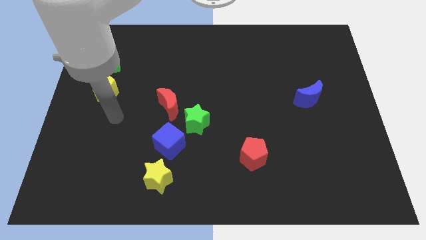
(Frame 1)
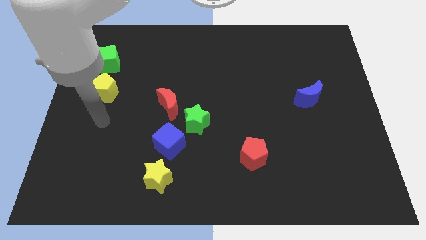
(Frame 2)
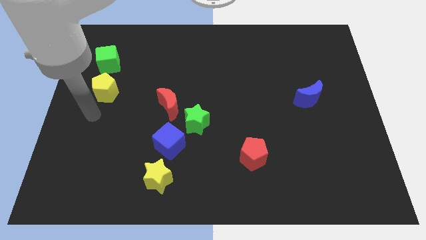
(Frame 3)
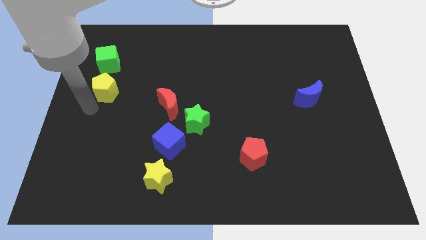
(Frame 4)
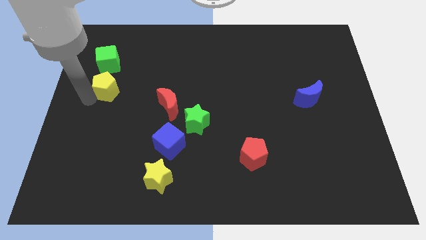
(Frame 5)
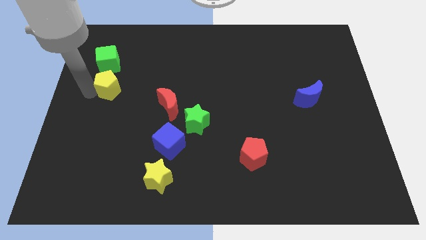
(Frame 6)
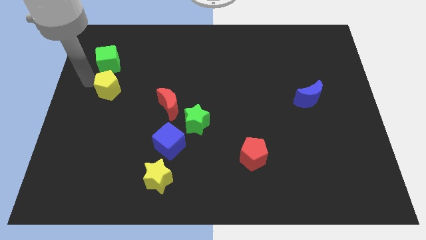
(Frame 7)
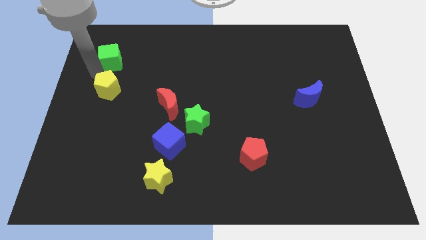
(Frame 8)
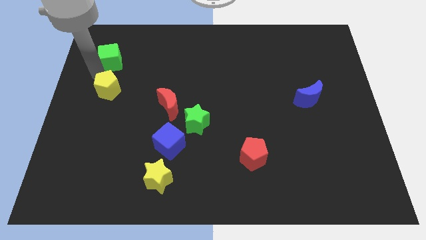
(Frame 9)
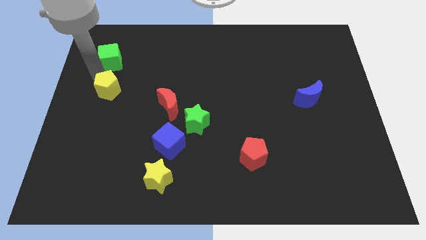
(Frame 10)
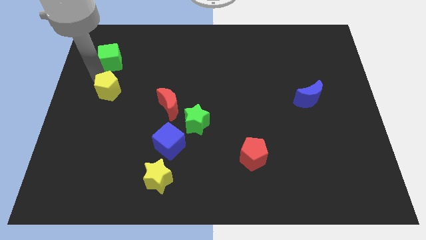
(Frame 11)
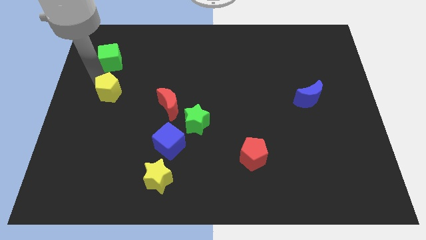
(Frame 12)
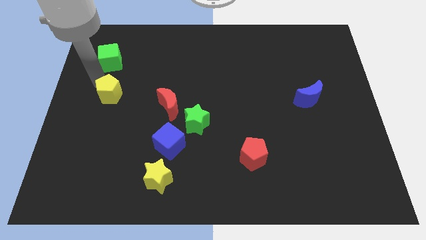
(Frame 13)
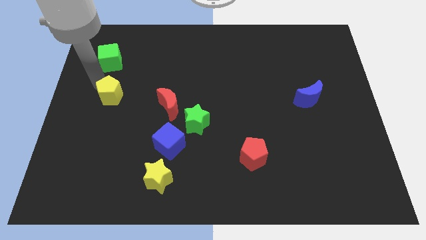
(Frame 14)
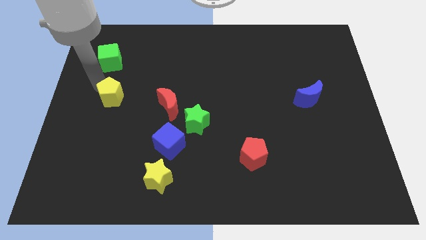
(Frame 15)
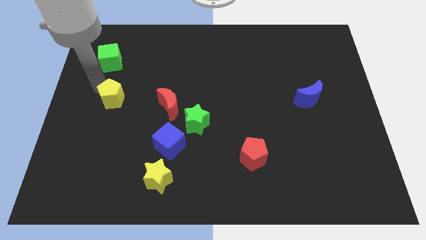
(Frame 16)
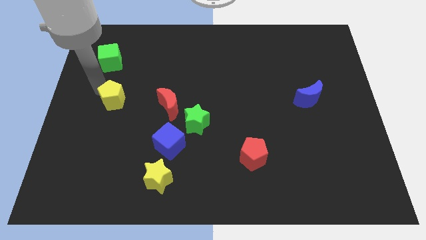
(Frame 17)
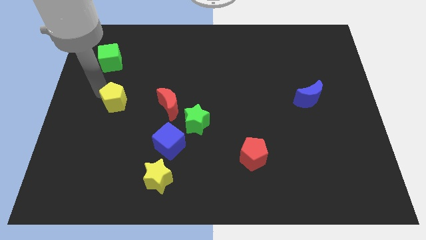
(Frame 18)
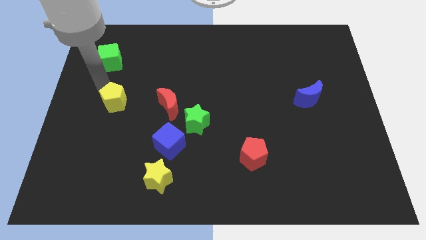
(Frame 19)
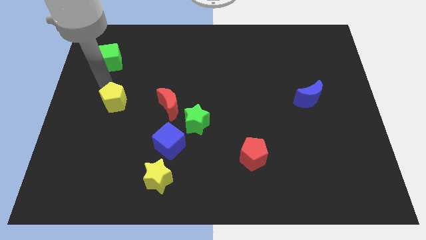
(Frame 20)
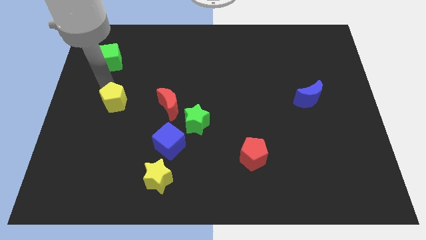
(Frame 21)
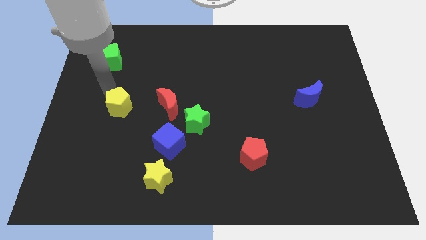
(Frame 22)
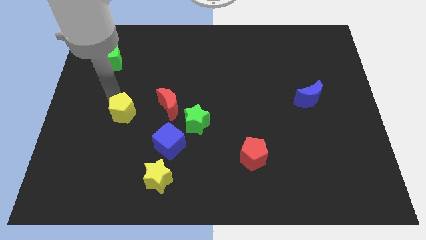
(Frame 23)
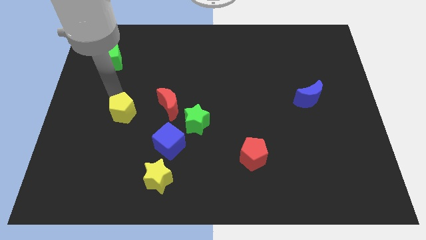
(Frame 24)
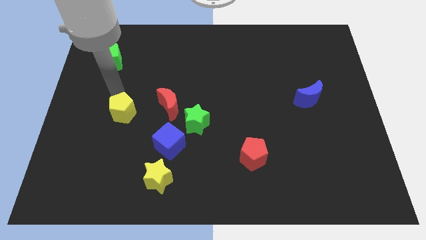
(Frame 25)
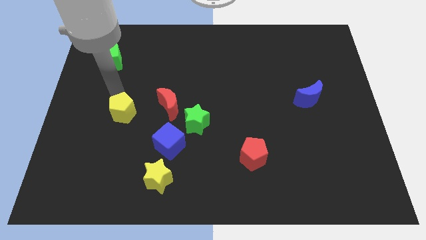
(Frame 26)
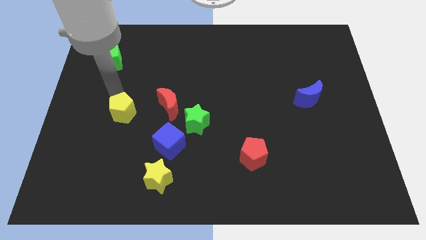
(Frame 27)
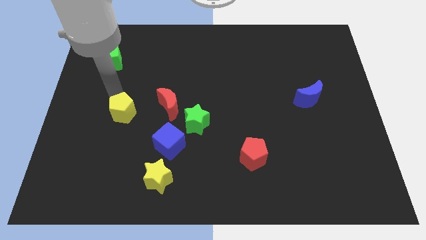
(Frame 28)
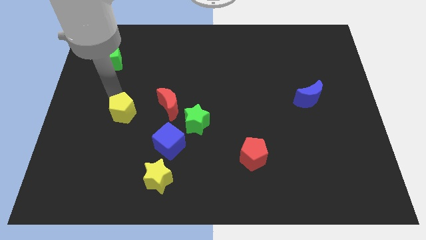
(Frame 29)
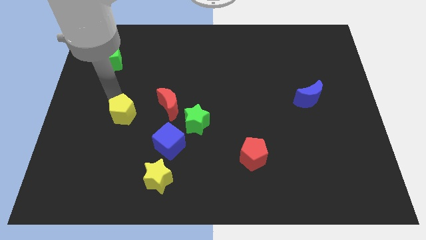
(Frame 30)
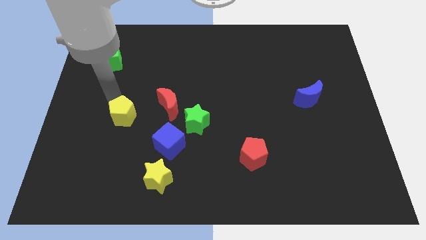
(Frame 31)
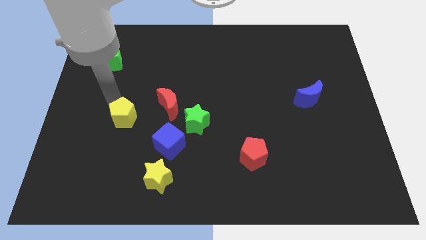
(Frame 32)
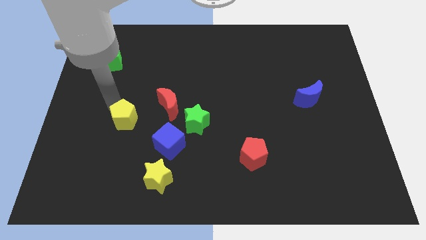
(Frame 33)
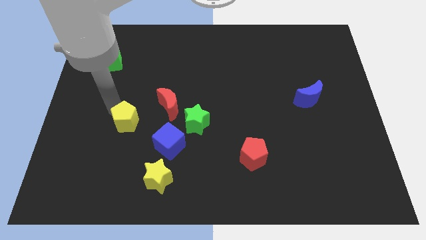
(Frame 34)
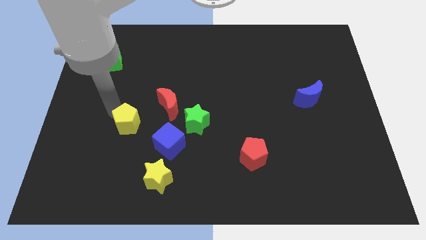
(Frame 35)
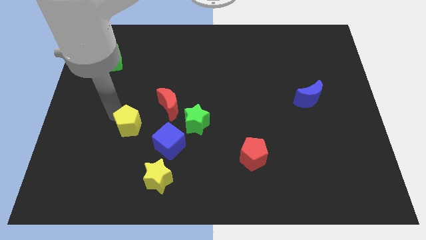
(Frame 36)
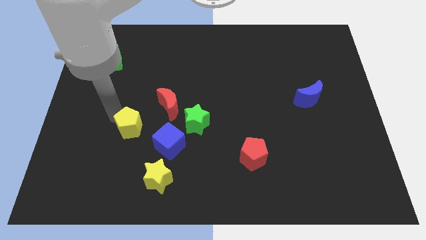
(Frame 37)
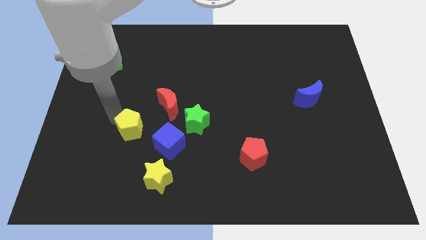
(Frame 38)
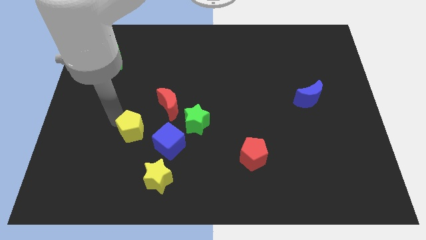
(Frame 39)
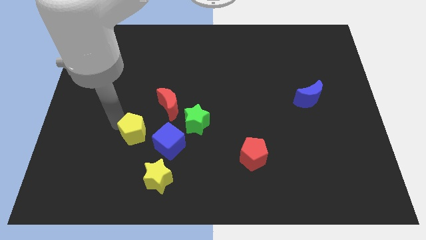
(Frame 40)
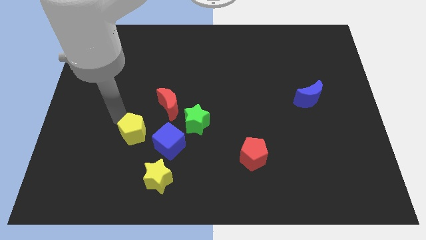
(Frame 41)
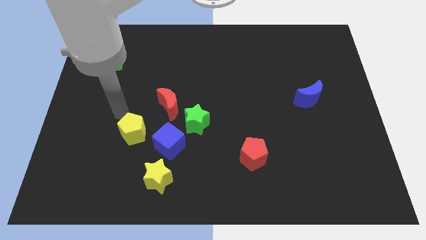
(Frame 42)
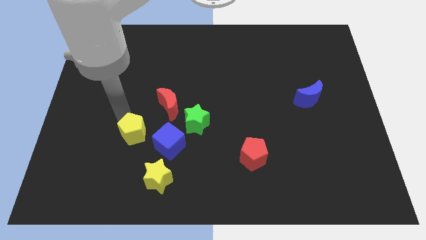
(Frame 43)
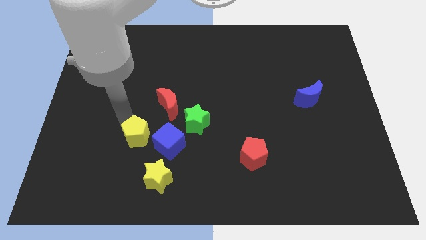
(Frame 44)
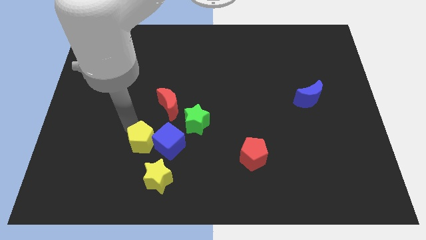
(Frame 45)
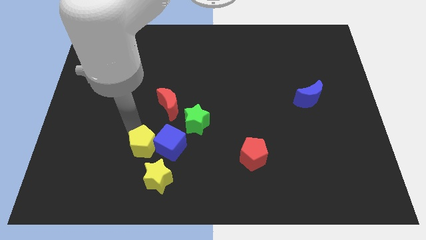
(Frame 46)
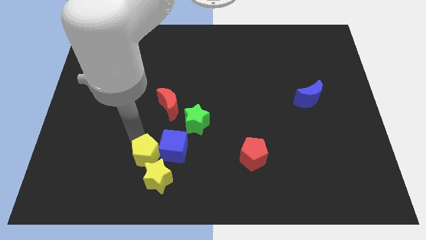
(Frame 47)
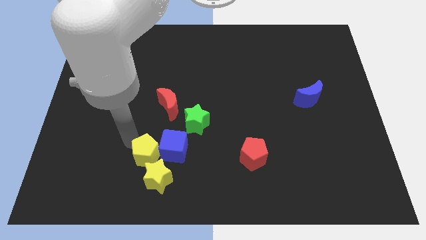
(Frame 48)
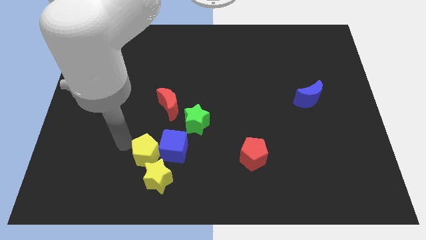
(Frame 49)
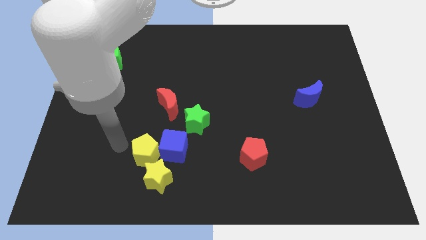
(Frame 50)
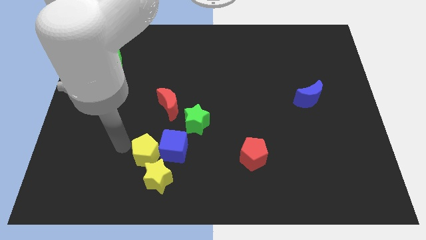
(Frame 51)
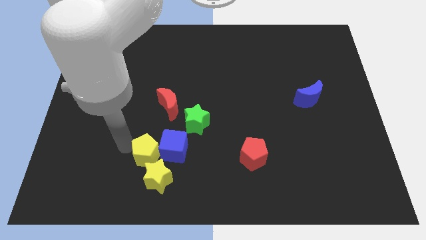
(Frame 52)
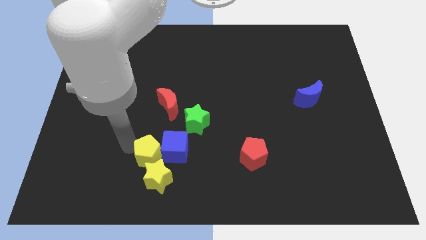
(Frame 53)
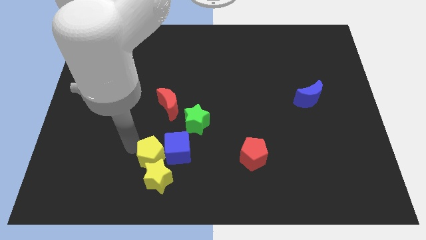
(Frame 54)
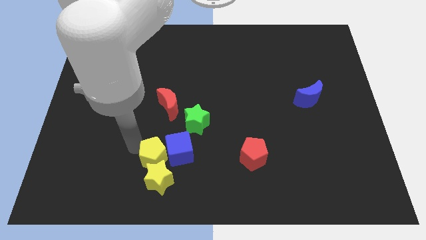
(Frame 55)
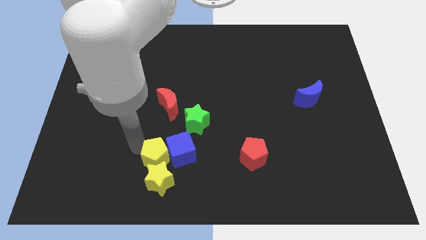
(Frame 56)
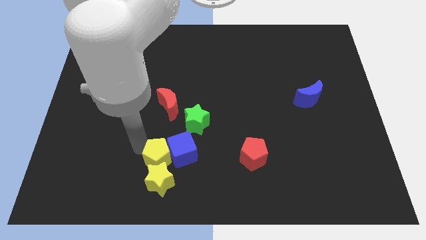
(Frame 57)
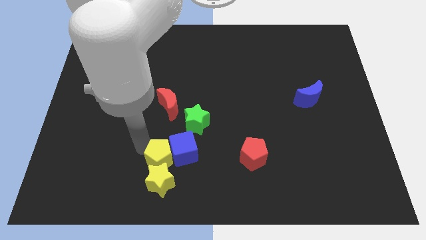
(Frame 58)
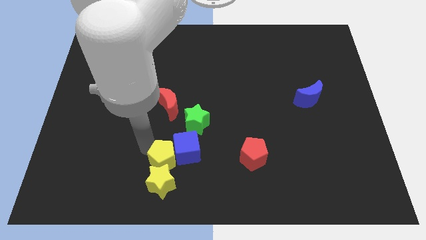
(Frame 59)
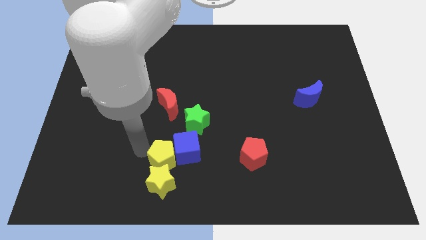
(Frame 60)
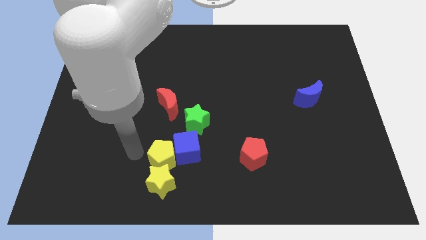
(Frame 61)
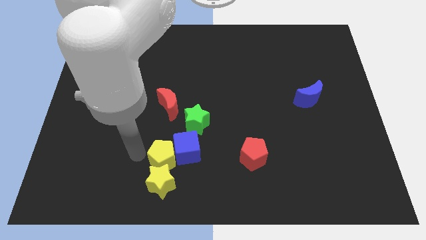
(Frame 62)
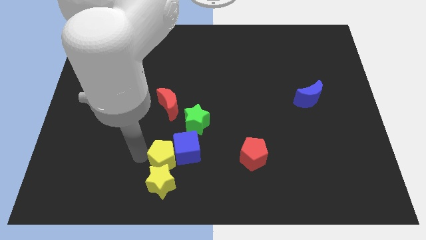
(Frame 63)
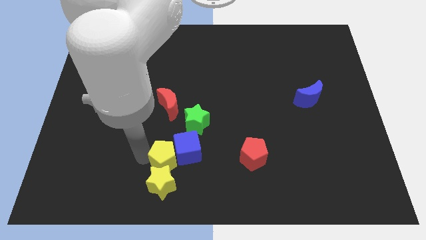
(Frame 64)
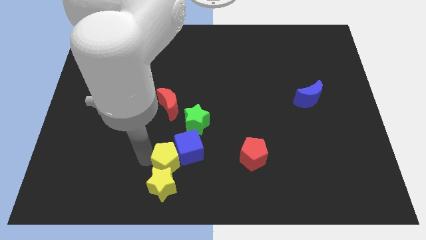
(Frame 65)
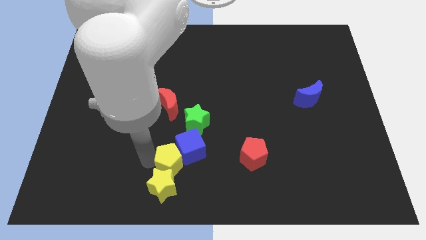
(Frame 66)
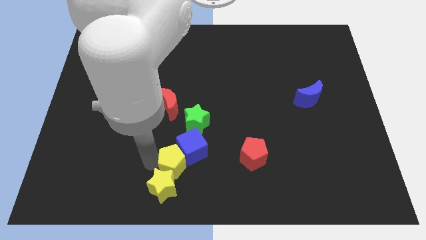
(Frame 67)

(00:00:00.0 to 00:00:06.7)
put the yellow pentagon to the bottom side of the green star

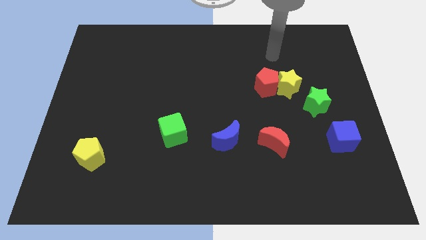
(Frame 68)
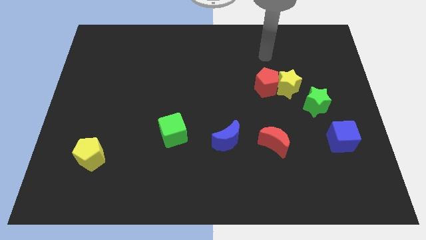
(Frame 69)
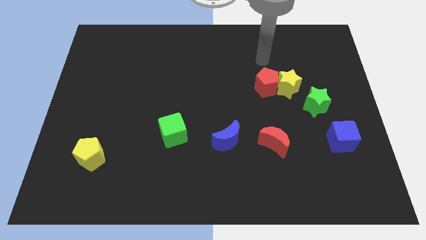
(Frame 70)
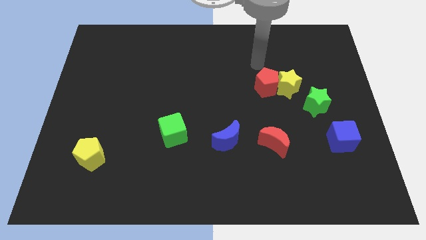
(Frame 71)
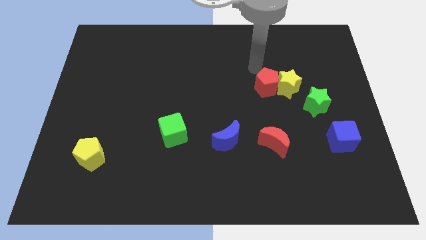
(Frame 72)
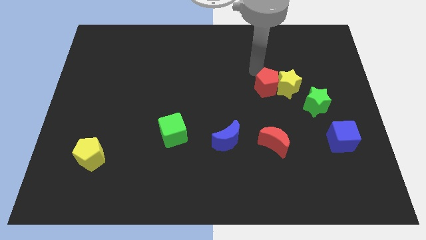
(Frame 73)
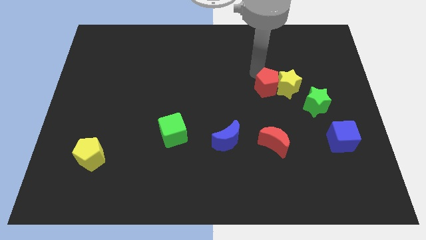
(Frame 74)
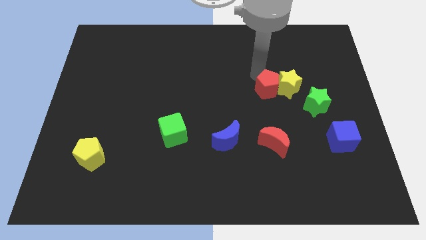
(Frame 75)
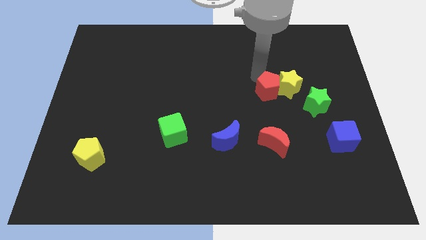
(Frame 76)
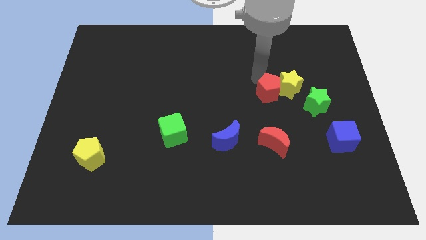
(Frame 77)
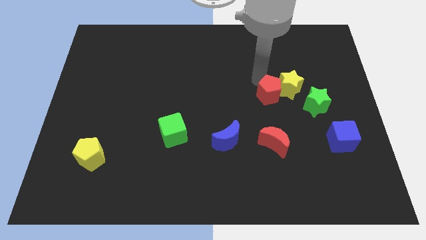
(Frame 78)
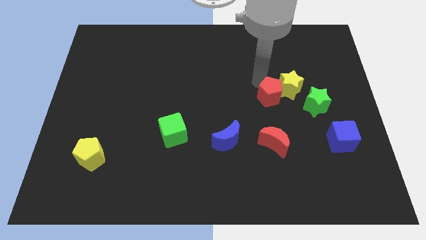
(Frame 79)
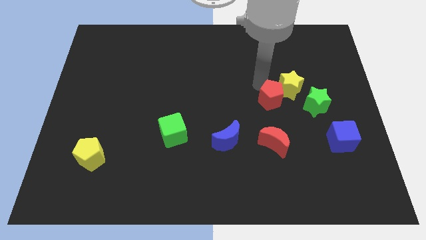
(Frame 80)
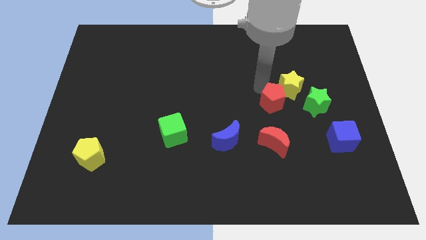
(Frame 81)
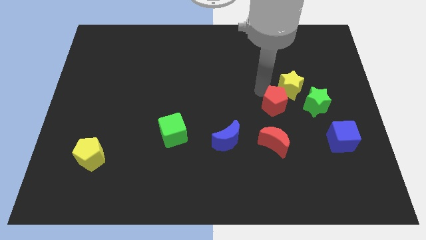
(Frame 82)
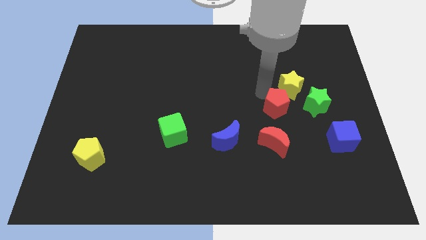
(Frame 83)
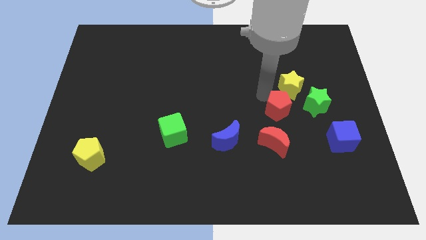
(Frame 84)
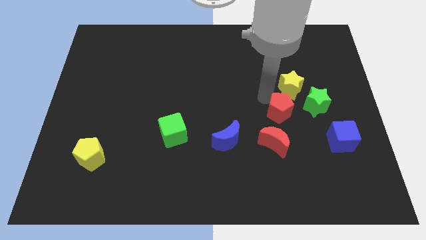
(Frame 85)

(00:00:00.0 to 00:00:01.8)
put the red pentagon diagonally down and to the left of the green star
